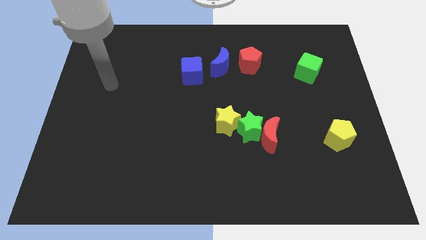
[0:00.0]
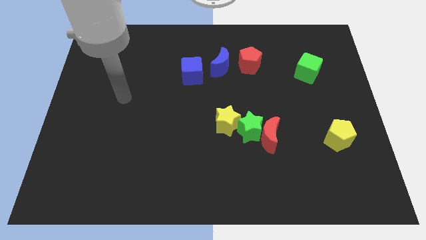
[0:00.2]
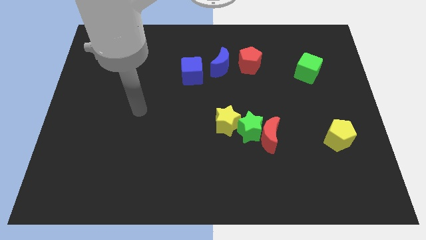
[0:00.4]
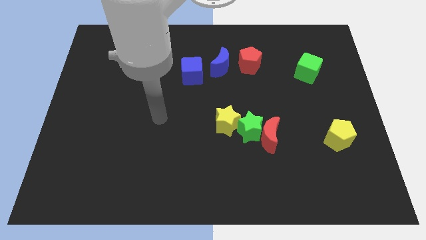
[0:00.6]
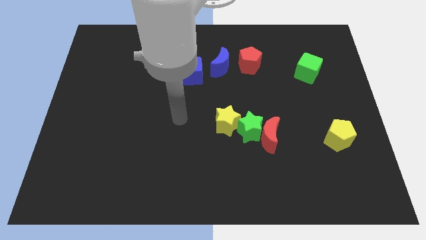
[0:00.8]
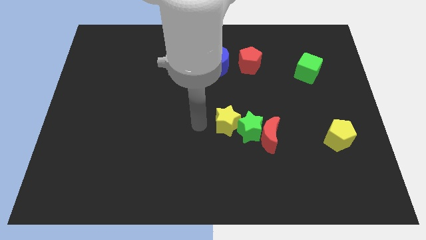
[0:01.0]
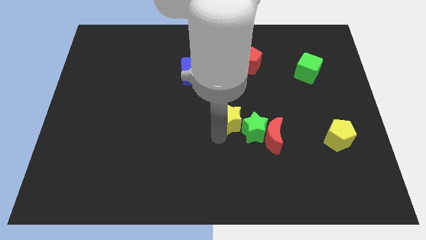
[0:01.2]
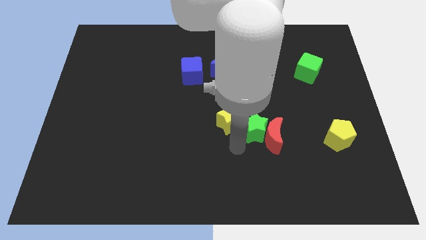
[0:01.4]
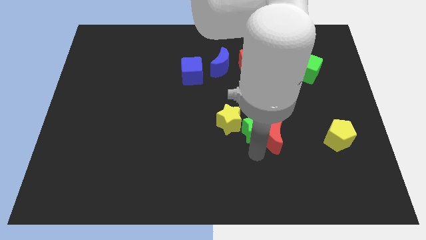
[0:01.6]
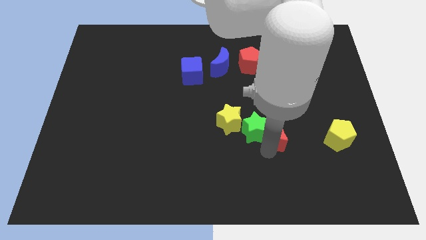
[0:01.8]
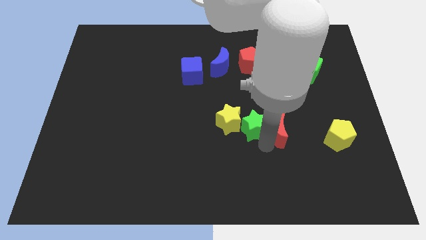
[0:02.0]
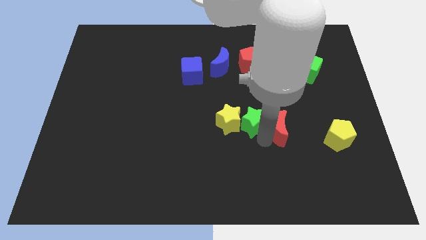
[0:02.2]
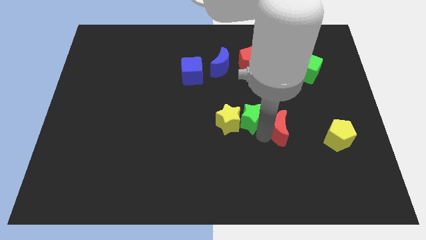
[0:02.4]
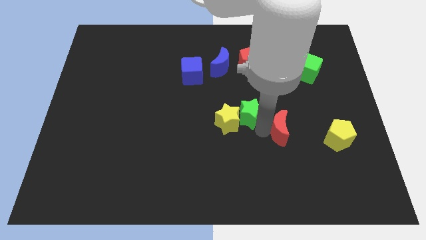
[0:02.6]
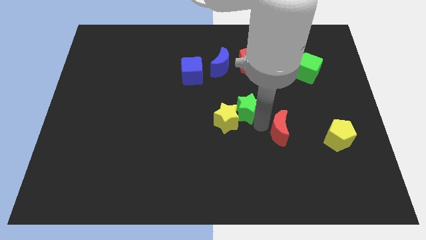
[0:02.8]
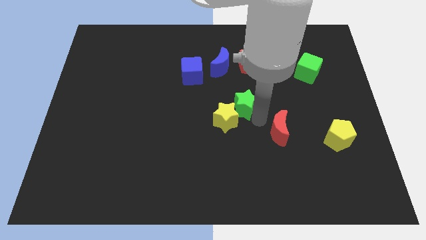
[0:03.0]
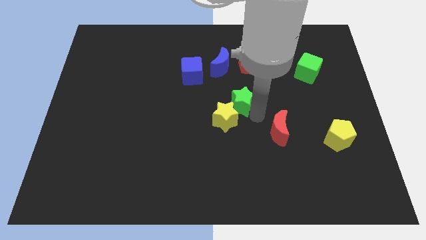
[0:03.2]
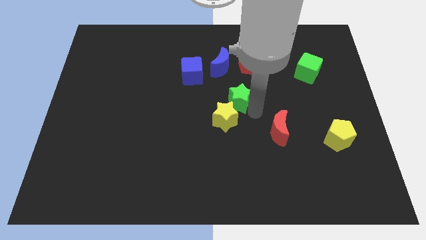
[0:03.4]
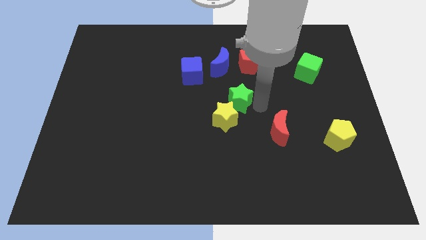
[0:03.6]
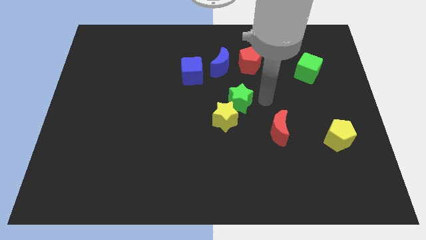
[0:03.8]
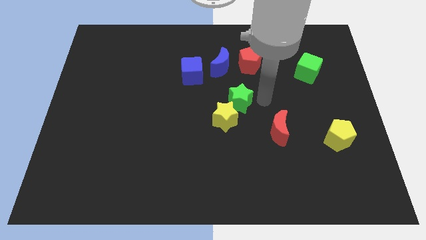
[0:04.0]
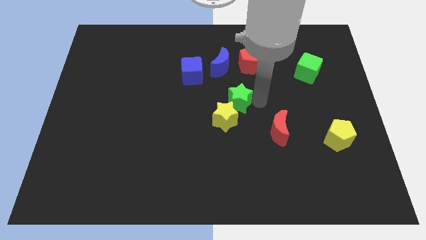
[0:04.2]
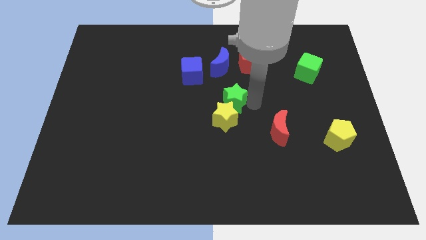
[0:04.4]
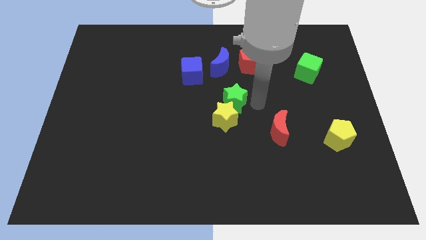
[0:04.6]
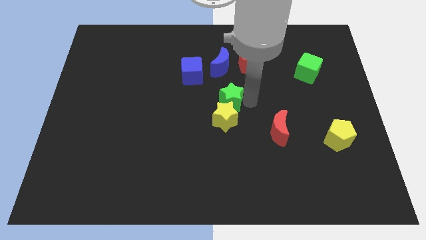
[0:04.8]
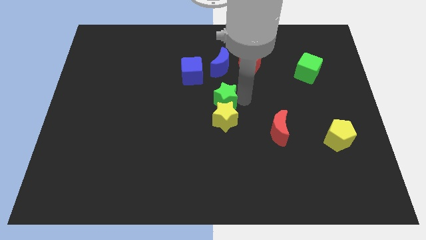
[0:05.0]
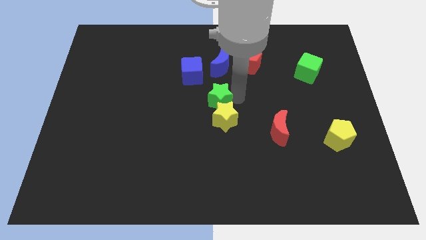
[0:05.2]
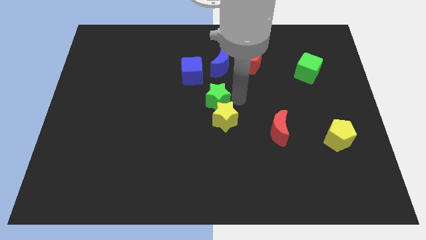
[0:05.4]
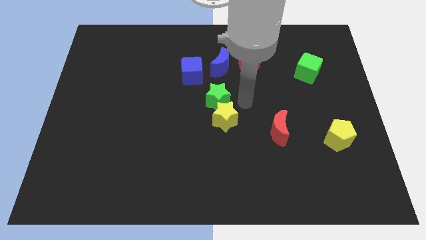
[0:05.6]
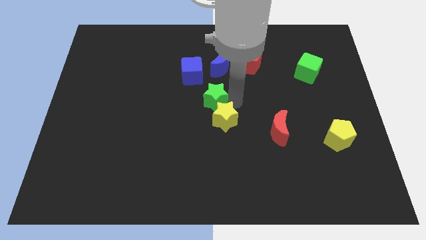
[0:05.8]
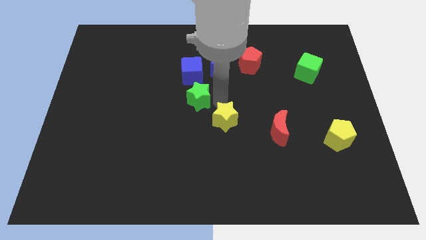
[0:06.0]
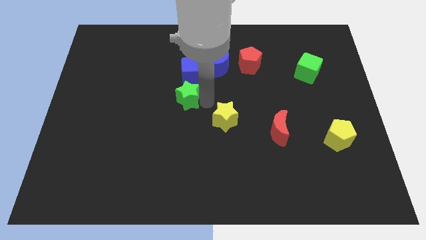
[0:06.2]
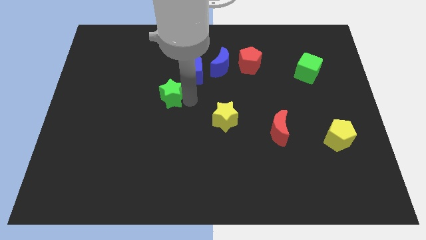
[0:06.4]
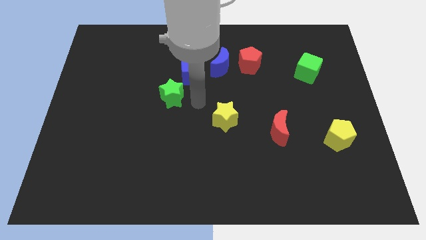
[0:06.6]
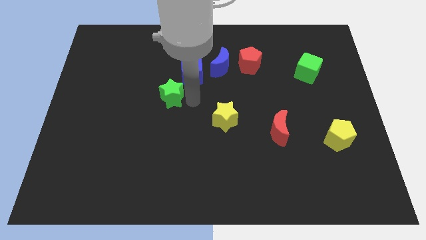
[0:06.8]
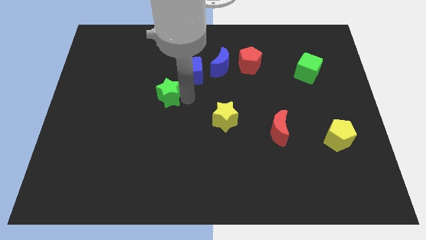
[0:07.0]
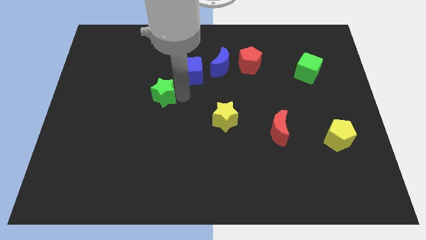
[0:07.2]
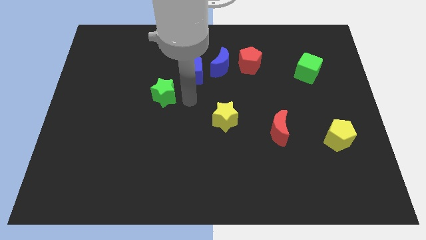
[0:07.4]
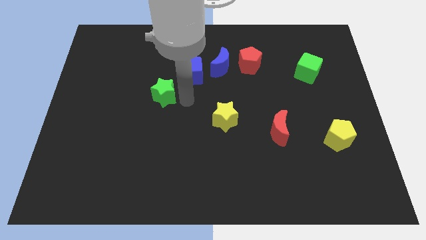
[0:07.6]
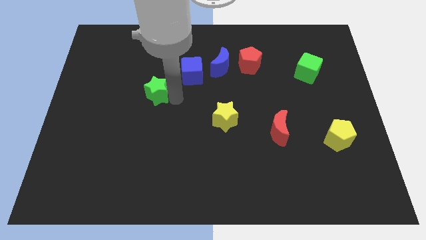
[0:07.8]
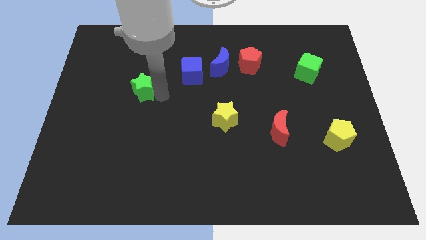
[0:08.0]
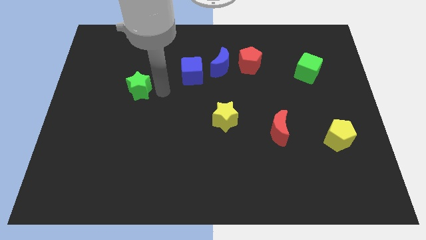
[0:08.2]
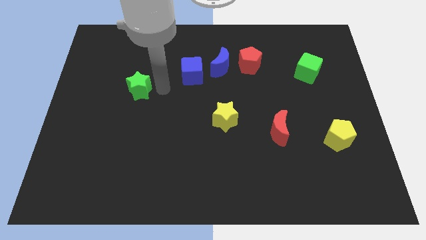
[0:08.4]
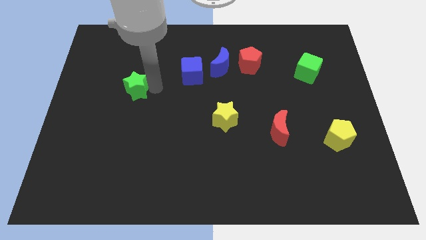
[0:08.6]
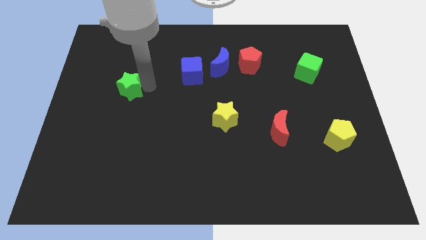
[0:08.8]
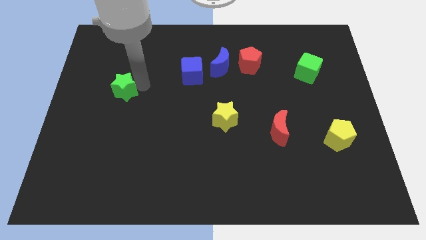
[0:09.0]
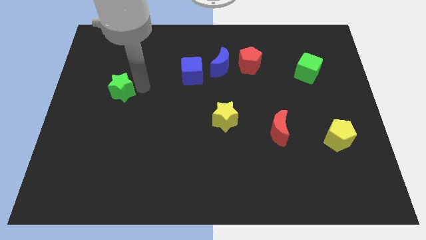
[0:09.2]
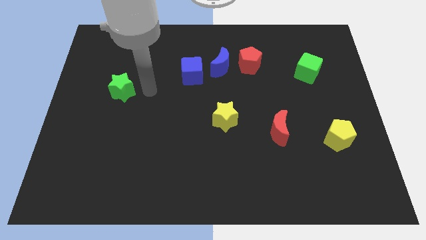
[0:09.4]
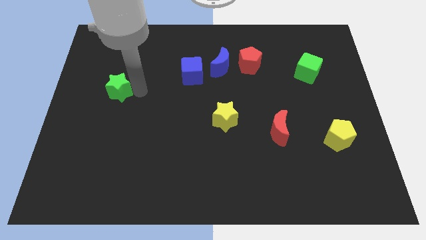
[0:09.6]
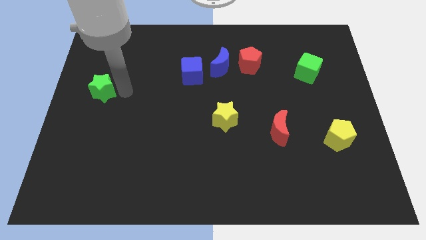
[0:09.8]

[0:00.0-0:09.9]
push the green star to the left side

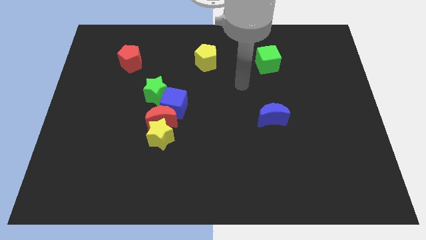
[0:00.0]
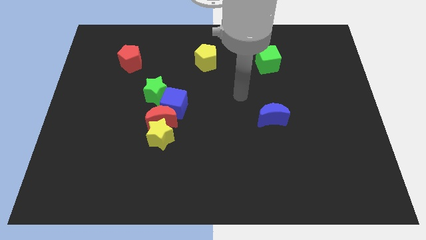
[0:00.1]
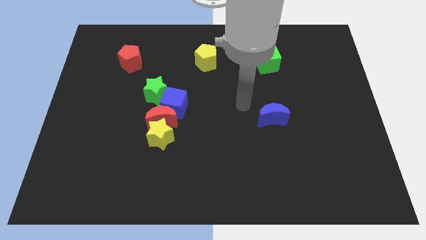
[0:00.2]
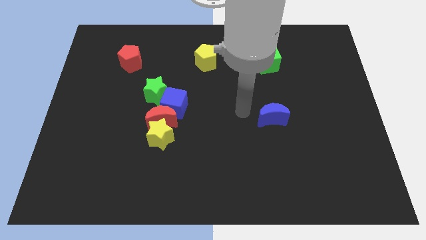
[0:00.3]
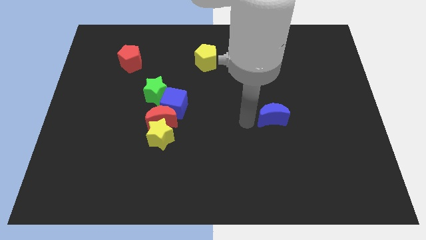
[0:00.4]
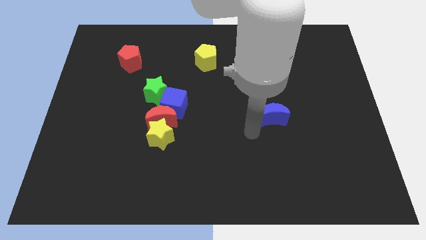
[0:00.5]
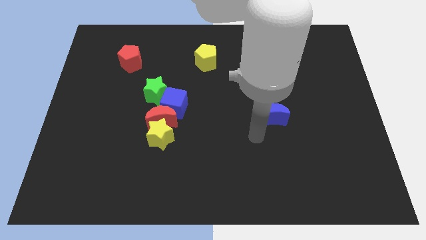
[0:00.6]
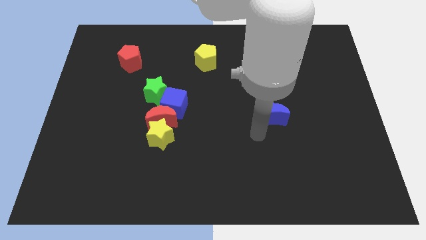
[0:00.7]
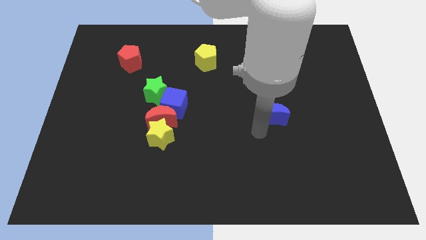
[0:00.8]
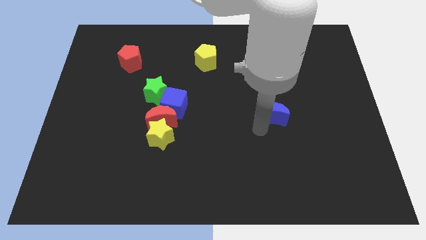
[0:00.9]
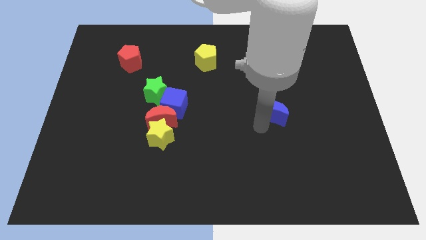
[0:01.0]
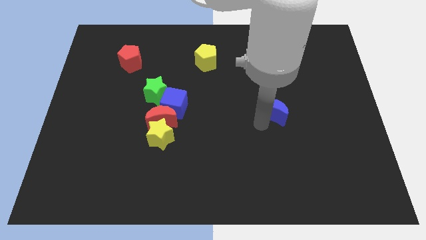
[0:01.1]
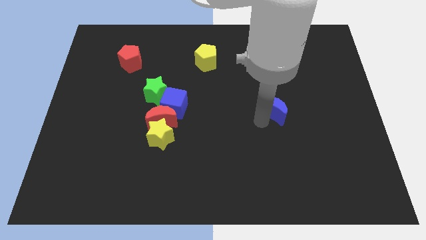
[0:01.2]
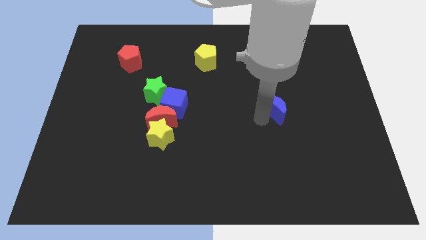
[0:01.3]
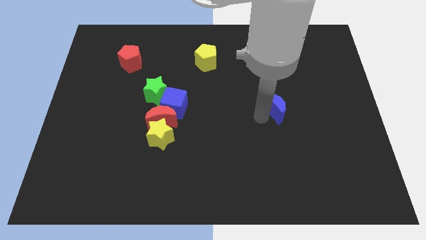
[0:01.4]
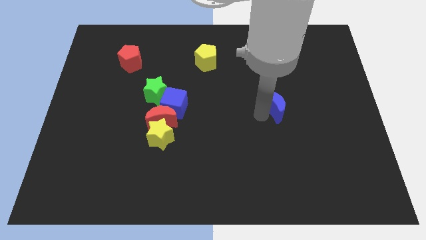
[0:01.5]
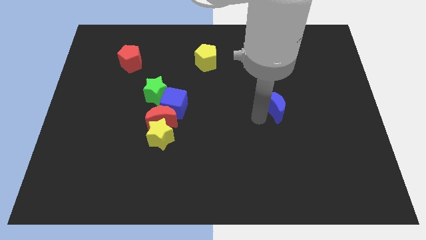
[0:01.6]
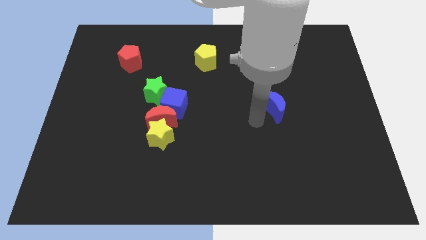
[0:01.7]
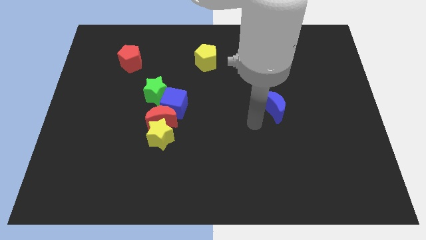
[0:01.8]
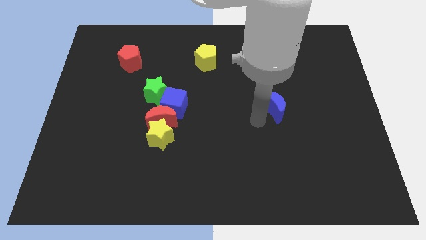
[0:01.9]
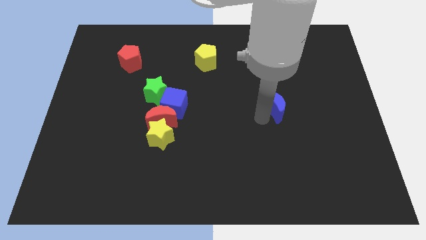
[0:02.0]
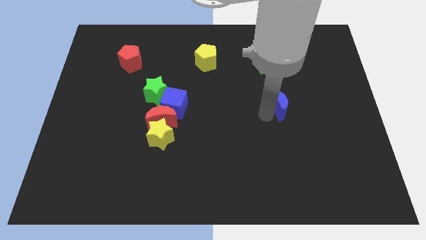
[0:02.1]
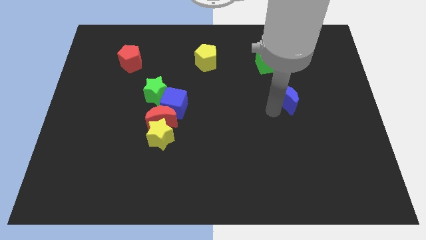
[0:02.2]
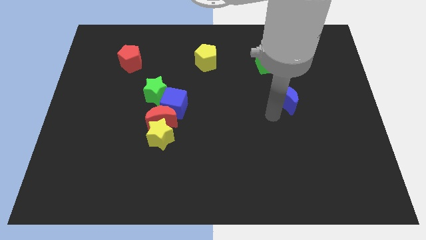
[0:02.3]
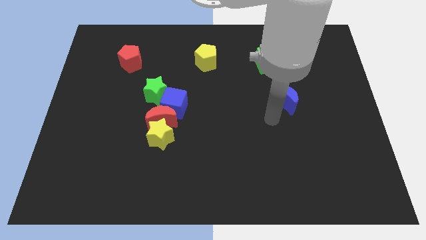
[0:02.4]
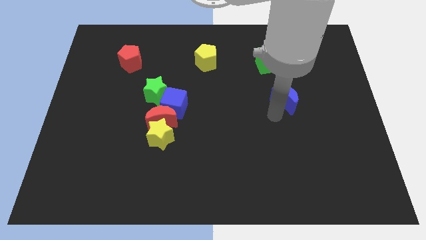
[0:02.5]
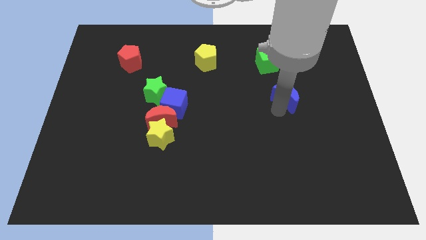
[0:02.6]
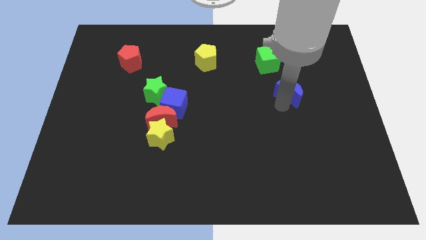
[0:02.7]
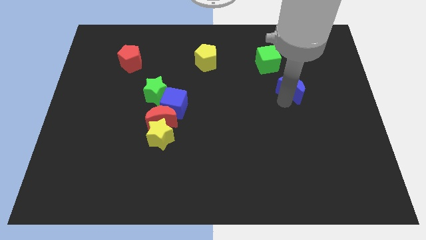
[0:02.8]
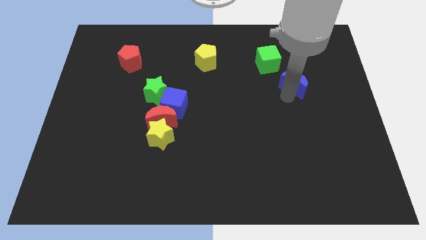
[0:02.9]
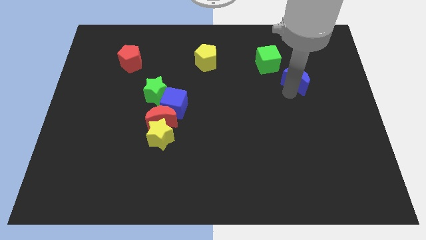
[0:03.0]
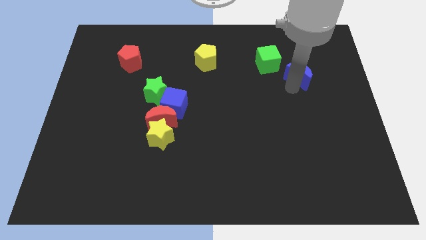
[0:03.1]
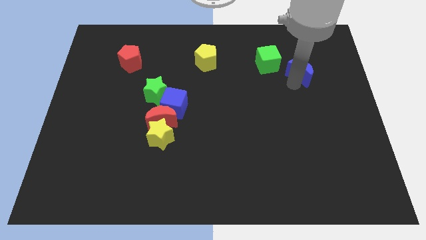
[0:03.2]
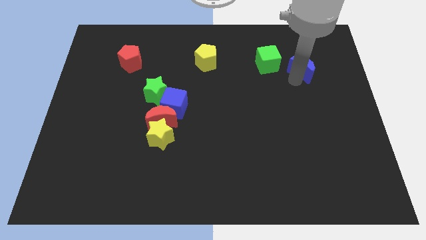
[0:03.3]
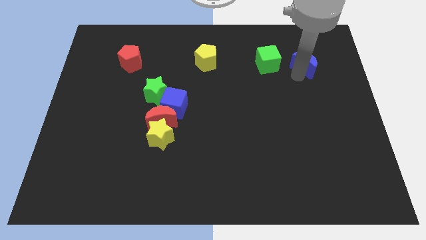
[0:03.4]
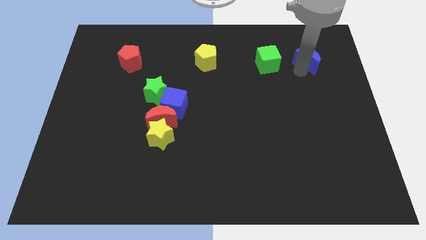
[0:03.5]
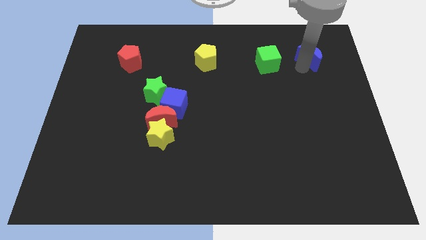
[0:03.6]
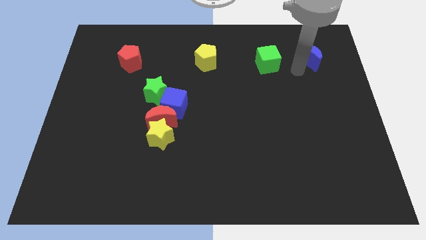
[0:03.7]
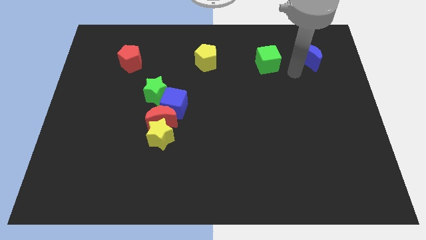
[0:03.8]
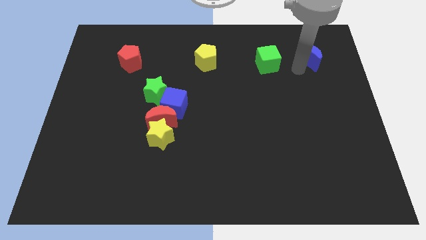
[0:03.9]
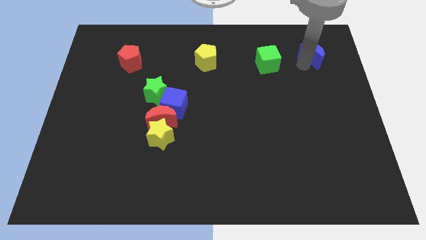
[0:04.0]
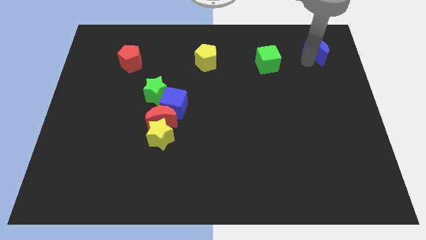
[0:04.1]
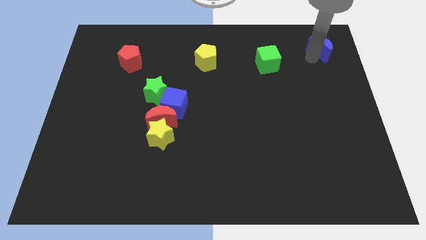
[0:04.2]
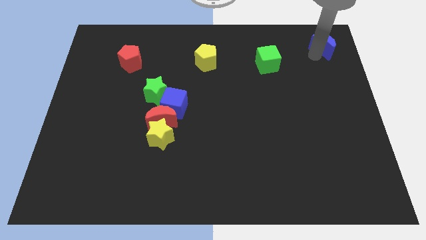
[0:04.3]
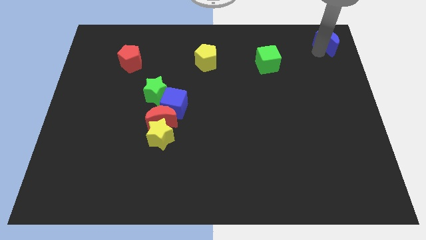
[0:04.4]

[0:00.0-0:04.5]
push the blue moon to the top right corner
